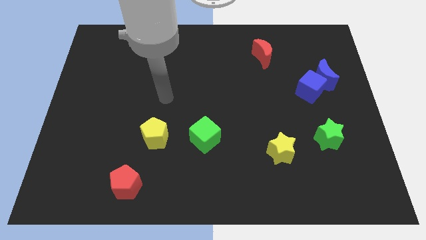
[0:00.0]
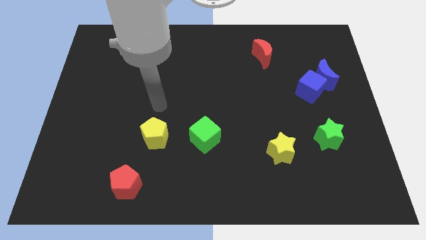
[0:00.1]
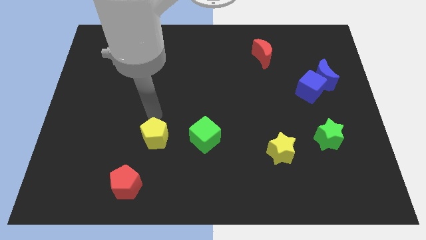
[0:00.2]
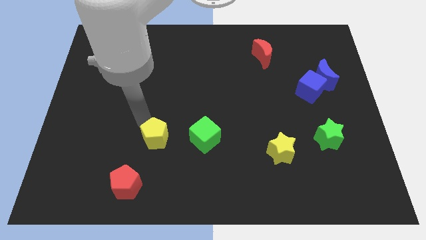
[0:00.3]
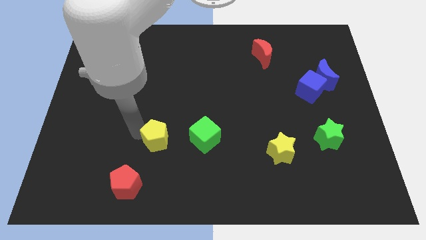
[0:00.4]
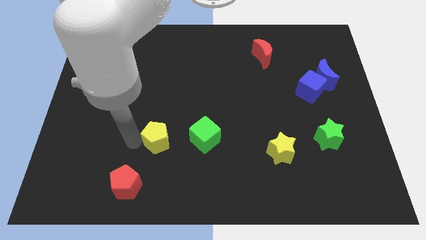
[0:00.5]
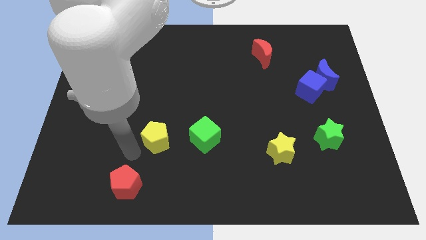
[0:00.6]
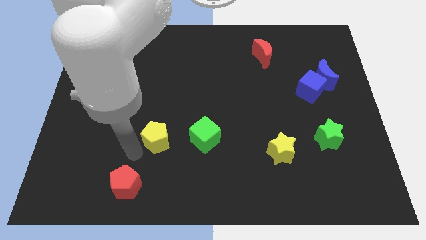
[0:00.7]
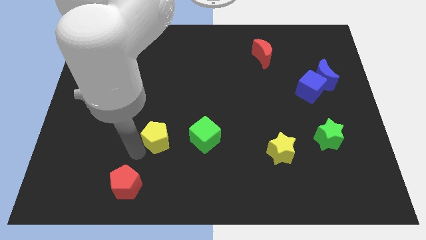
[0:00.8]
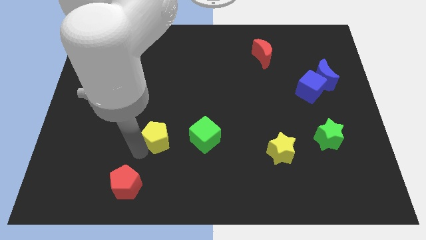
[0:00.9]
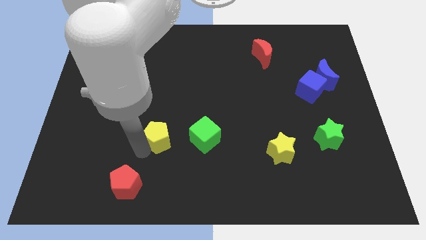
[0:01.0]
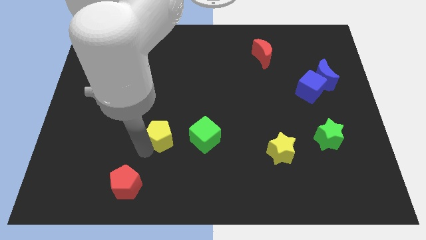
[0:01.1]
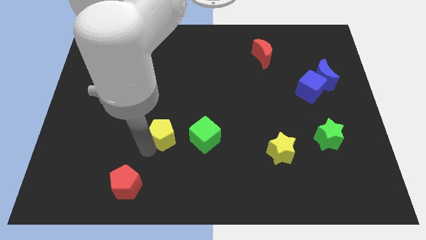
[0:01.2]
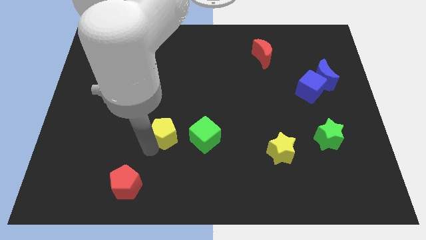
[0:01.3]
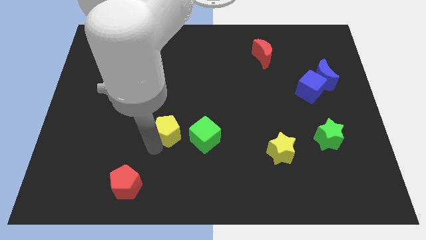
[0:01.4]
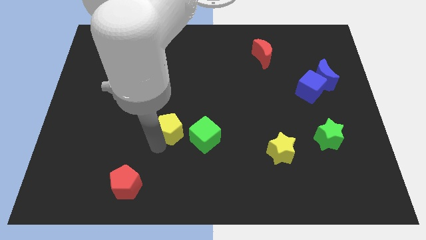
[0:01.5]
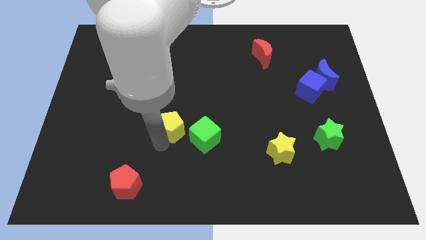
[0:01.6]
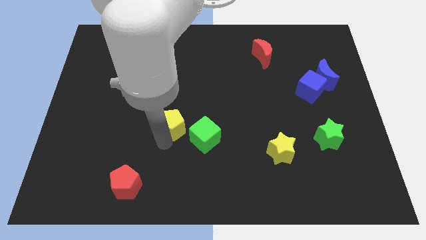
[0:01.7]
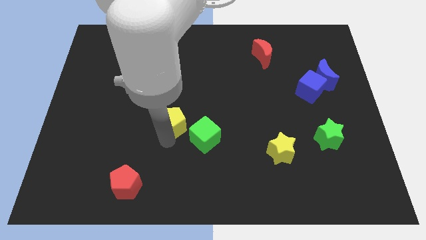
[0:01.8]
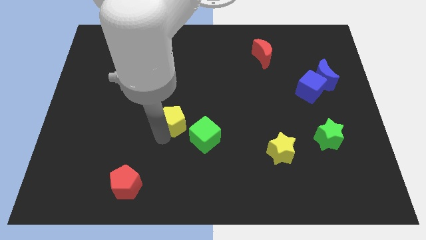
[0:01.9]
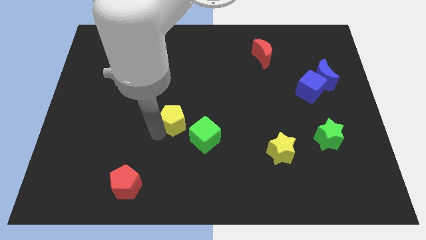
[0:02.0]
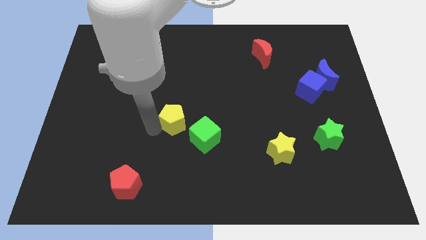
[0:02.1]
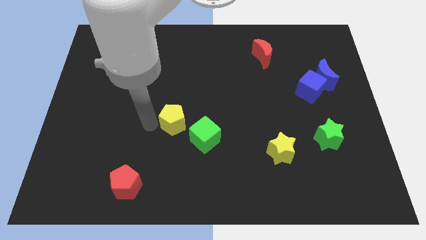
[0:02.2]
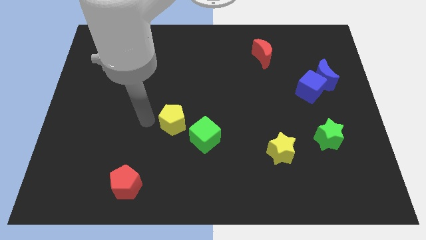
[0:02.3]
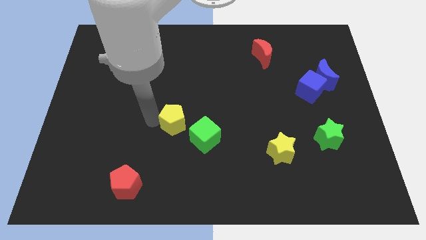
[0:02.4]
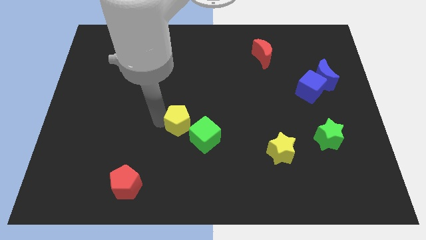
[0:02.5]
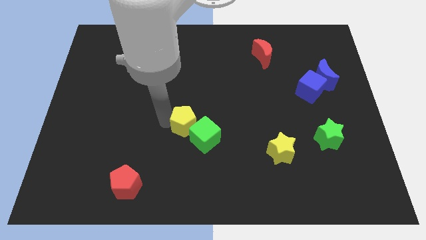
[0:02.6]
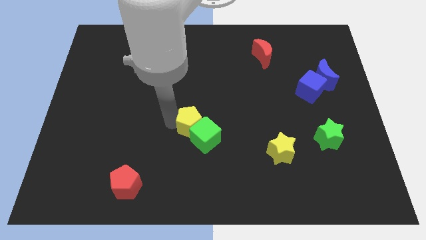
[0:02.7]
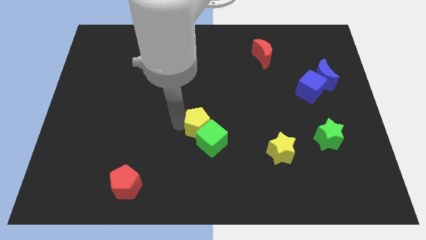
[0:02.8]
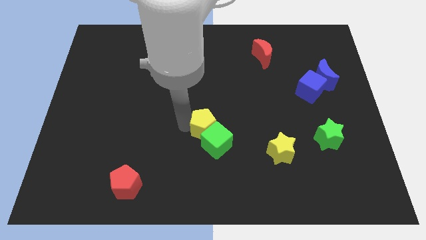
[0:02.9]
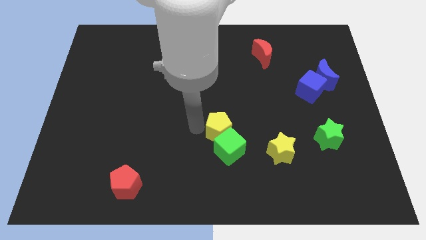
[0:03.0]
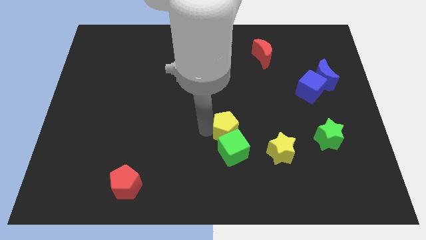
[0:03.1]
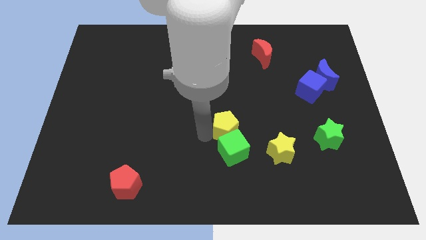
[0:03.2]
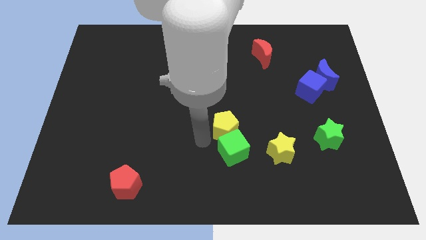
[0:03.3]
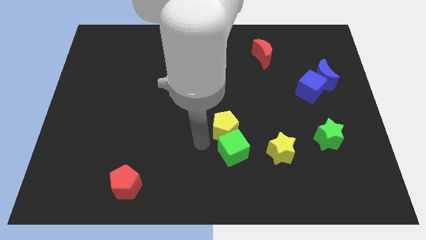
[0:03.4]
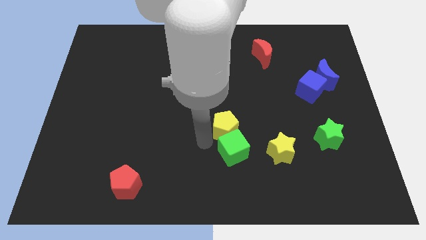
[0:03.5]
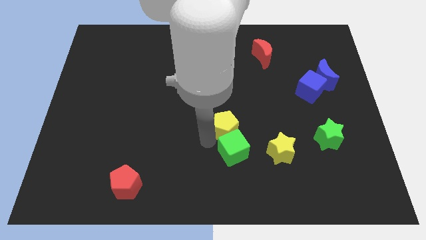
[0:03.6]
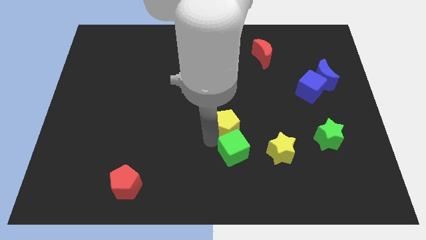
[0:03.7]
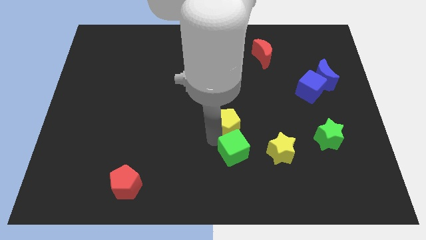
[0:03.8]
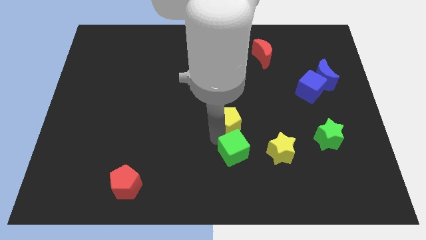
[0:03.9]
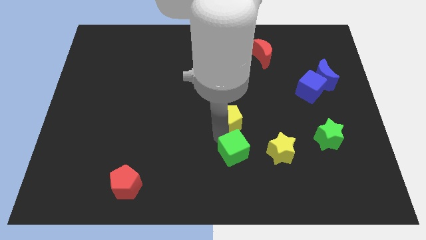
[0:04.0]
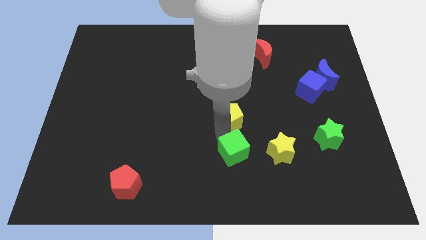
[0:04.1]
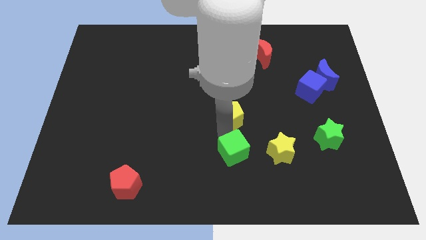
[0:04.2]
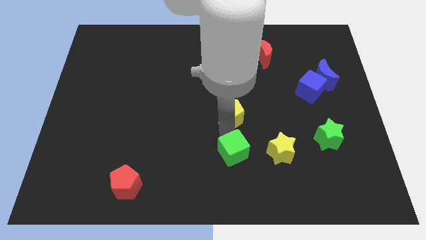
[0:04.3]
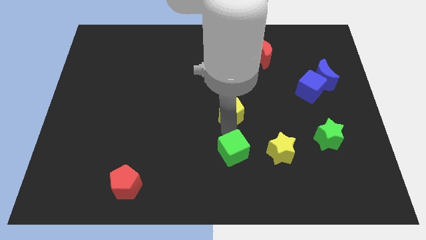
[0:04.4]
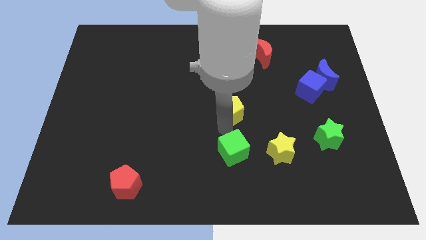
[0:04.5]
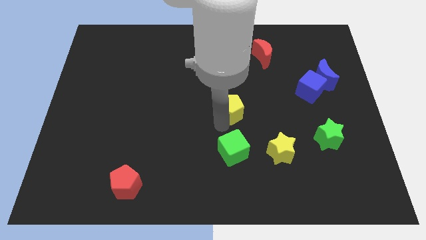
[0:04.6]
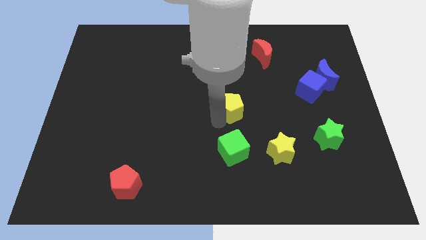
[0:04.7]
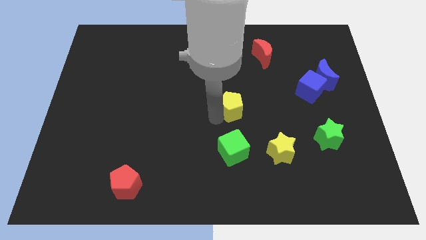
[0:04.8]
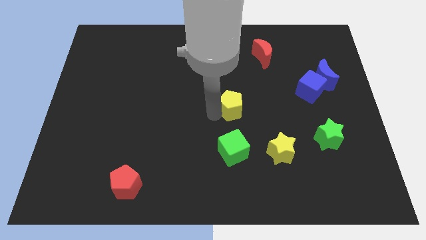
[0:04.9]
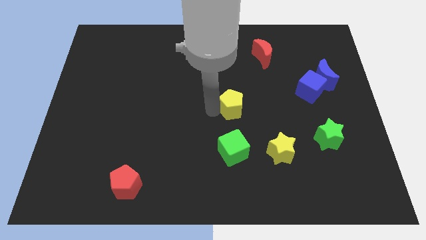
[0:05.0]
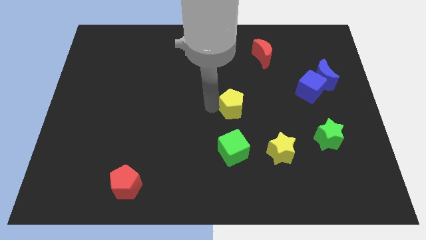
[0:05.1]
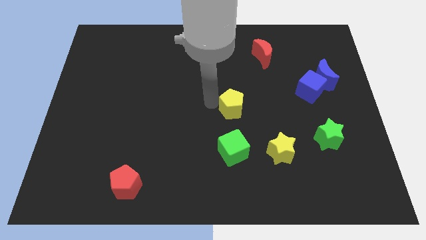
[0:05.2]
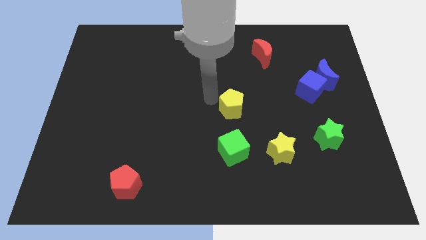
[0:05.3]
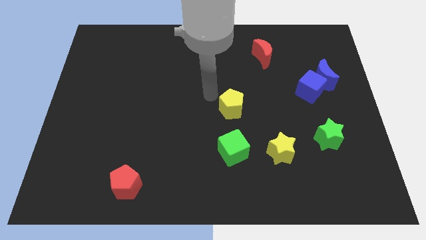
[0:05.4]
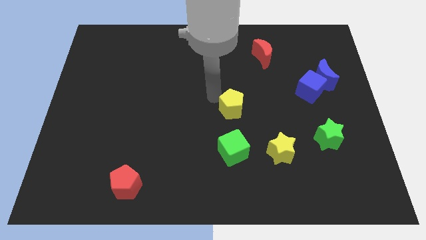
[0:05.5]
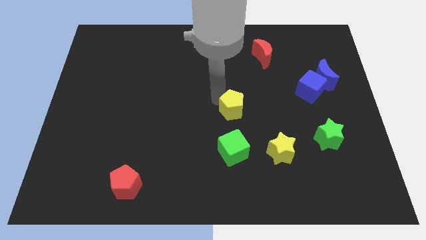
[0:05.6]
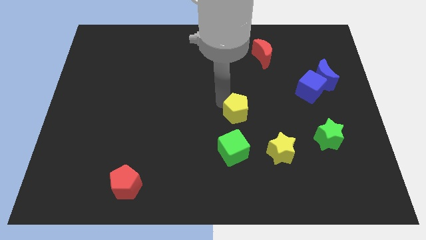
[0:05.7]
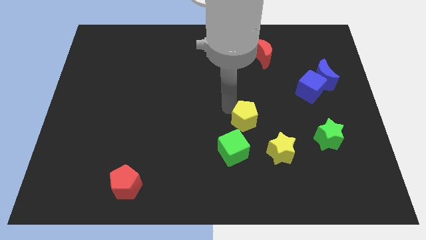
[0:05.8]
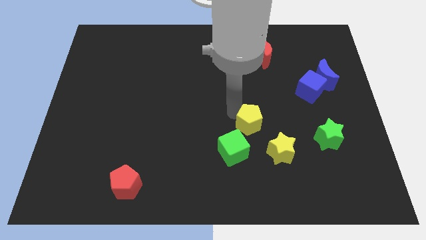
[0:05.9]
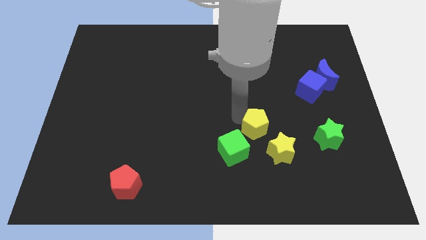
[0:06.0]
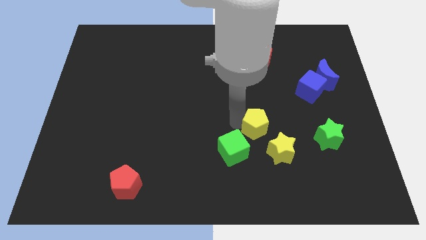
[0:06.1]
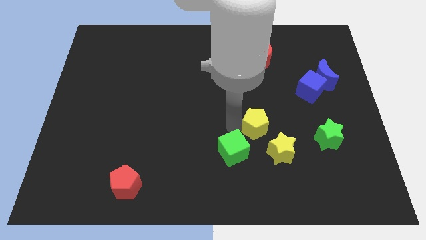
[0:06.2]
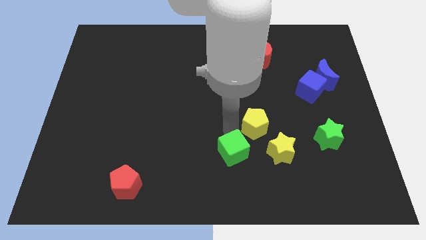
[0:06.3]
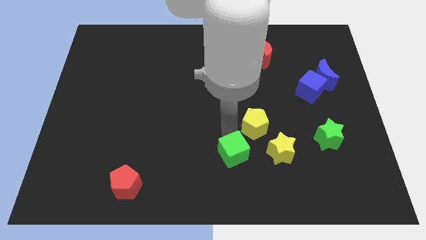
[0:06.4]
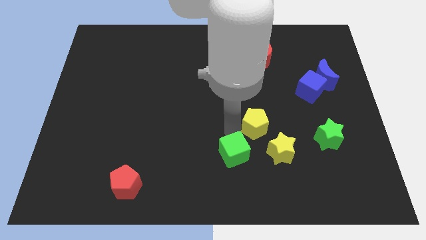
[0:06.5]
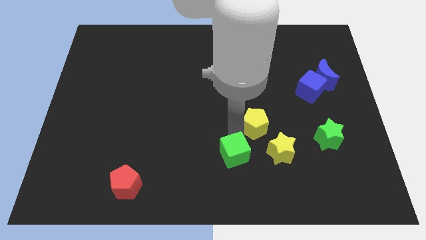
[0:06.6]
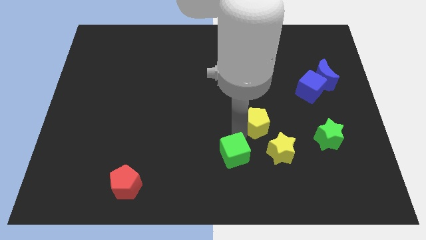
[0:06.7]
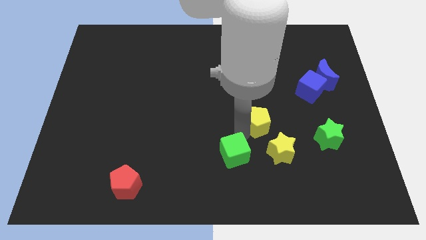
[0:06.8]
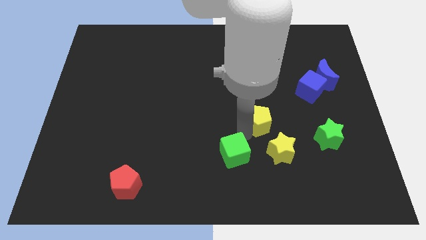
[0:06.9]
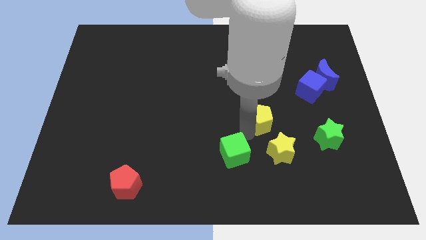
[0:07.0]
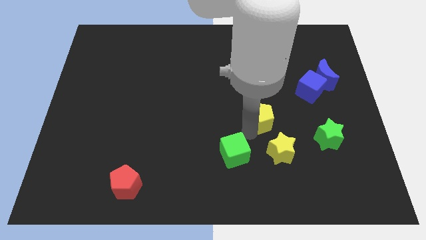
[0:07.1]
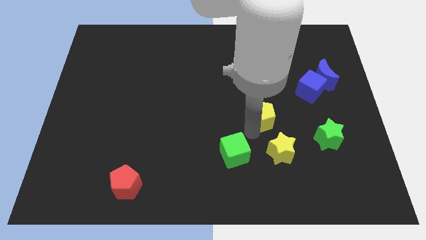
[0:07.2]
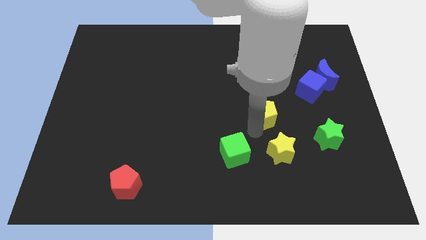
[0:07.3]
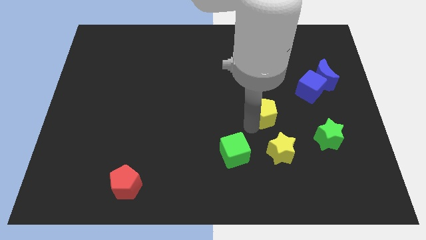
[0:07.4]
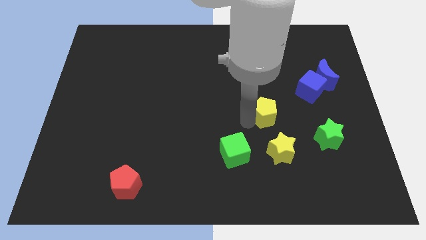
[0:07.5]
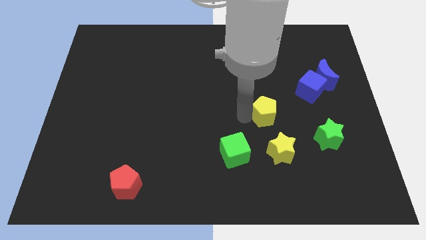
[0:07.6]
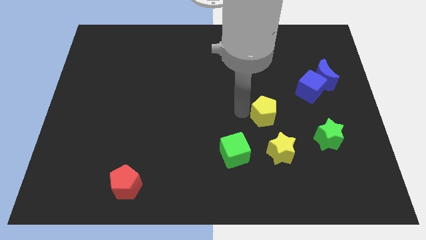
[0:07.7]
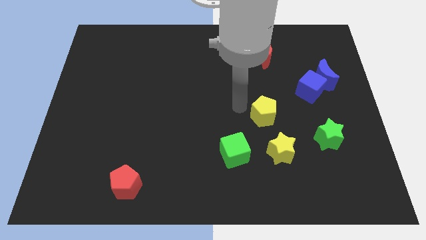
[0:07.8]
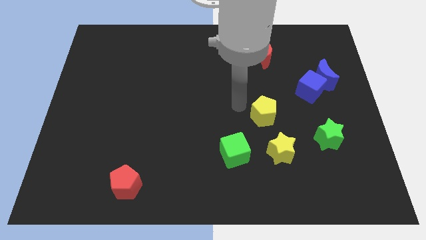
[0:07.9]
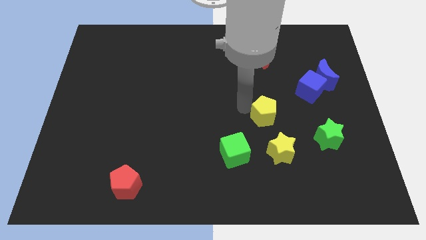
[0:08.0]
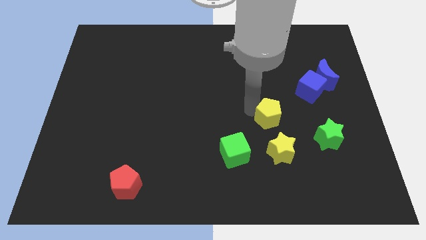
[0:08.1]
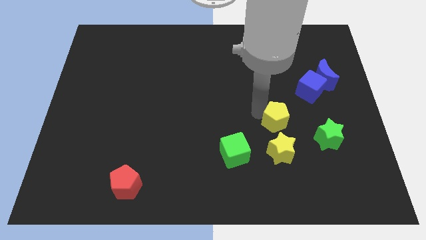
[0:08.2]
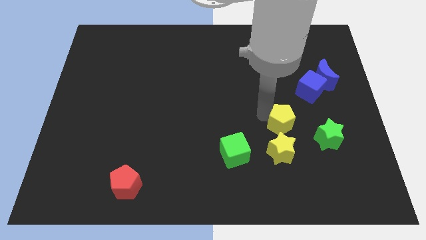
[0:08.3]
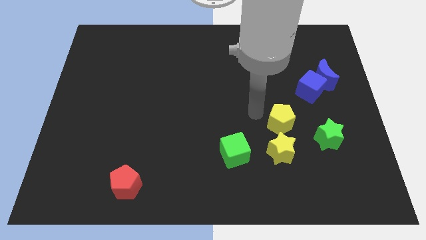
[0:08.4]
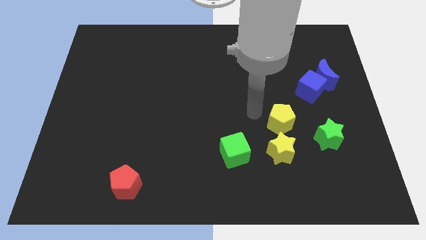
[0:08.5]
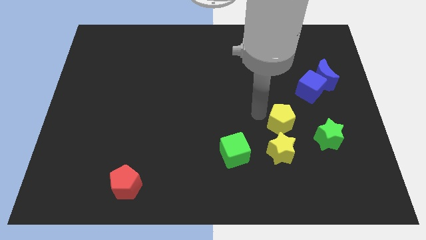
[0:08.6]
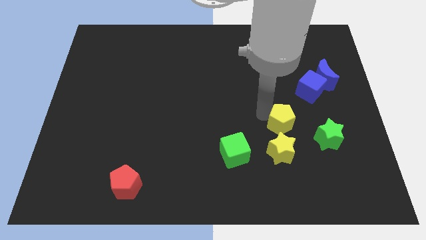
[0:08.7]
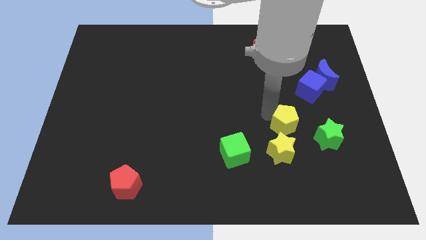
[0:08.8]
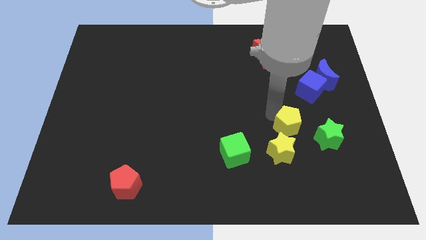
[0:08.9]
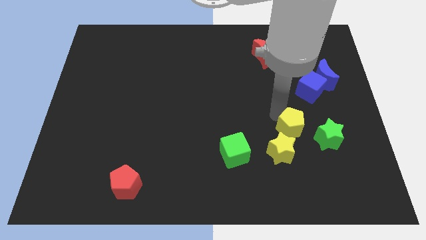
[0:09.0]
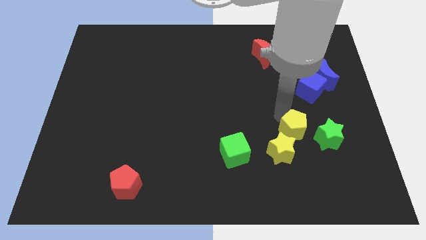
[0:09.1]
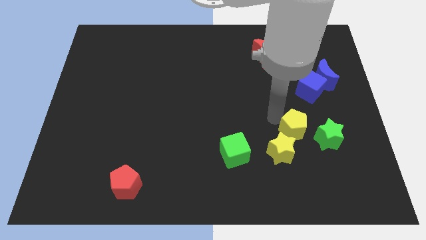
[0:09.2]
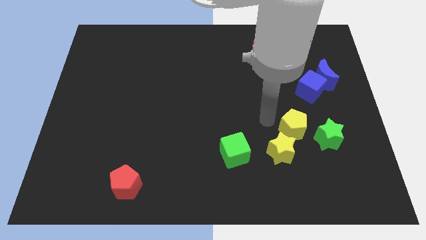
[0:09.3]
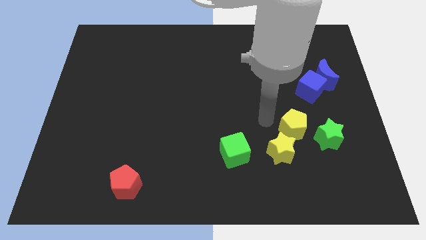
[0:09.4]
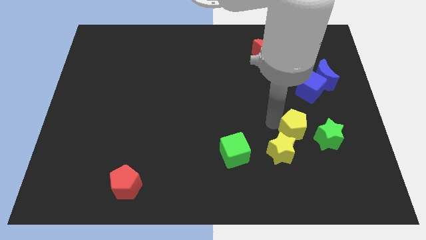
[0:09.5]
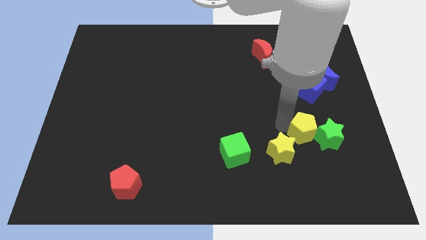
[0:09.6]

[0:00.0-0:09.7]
put the yellow pentagon close to the green star
